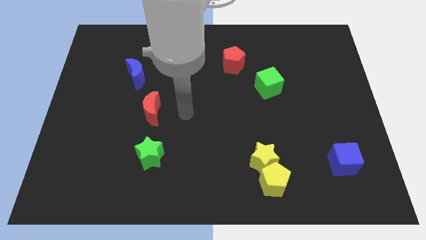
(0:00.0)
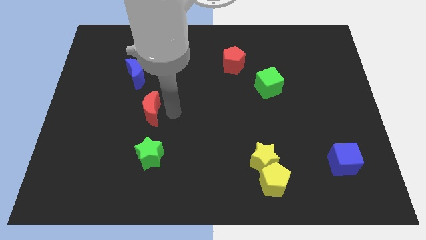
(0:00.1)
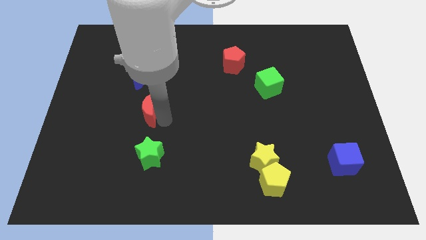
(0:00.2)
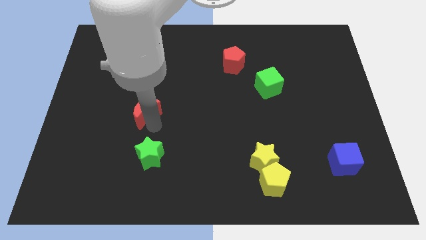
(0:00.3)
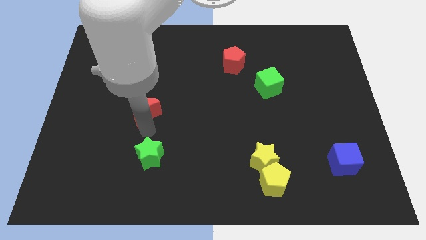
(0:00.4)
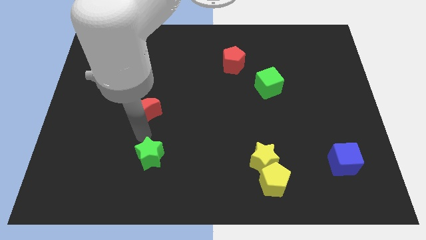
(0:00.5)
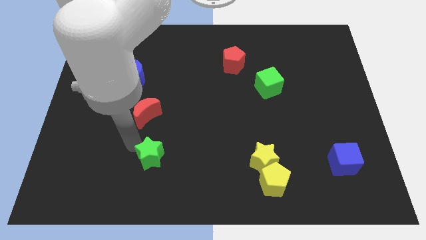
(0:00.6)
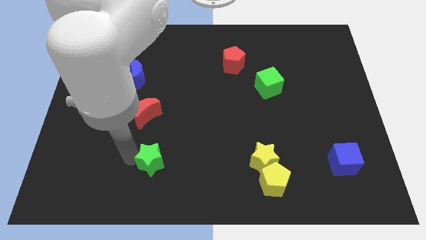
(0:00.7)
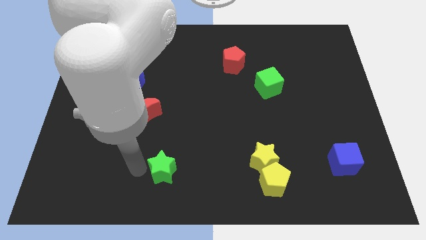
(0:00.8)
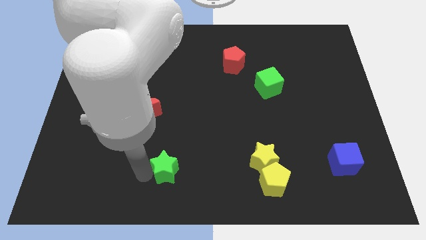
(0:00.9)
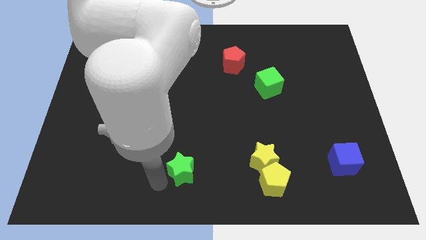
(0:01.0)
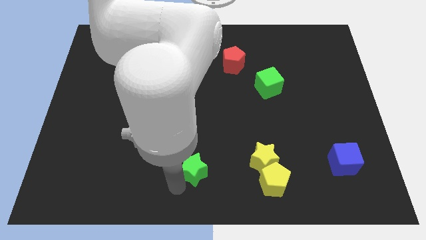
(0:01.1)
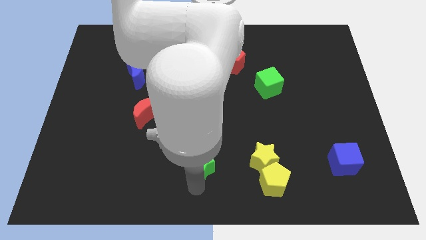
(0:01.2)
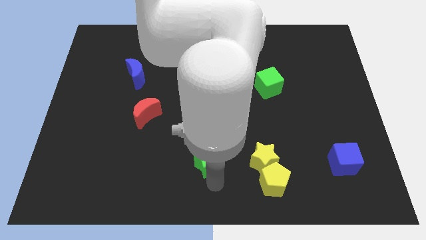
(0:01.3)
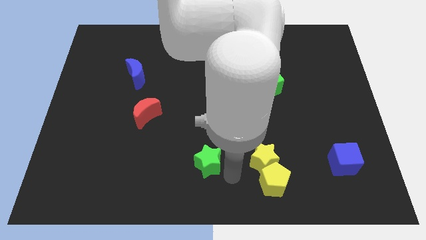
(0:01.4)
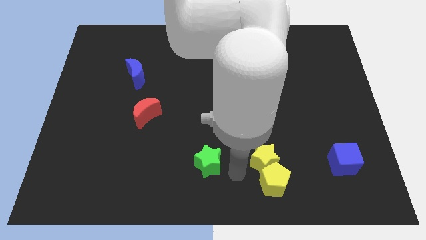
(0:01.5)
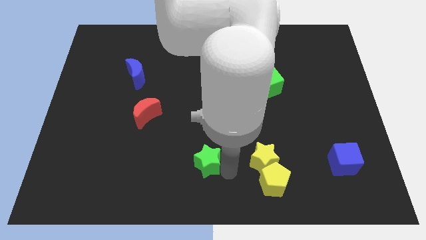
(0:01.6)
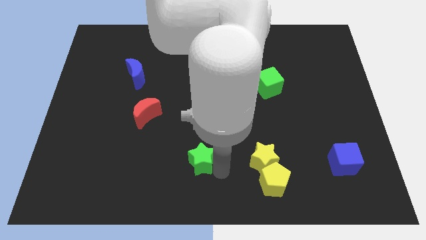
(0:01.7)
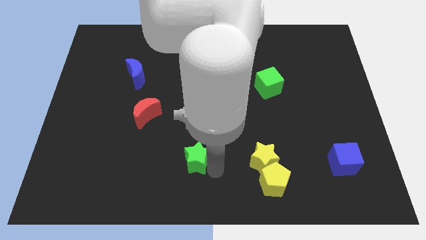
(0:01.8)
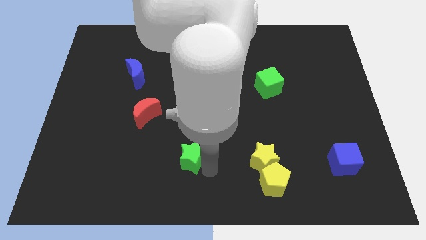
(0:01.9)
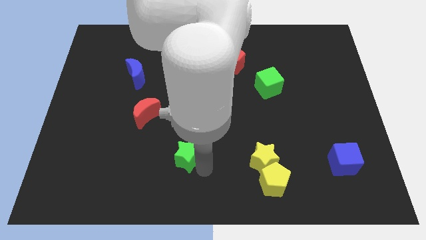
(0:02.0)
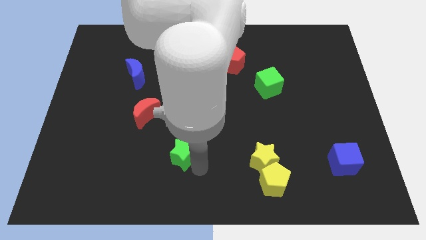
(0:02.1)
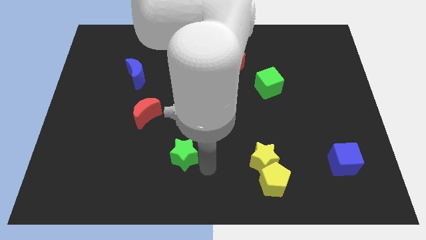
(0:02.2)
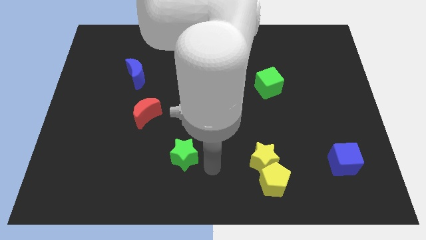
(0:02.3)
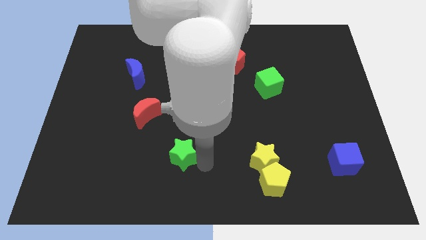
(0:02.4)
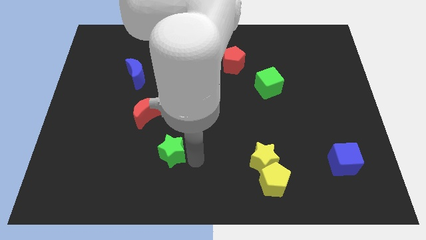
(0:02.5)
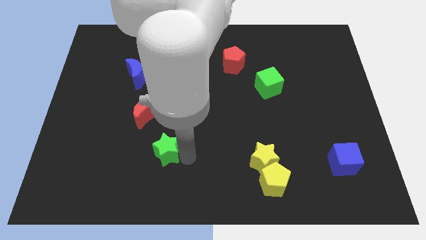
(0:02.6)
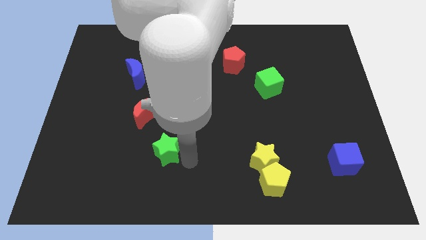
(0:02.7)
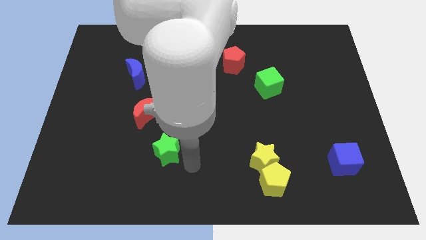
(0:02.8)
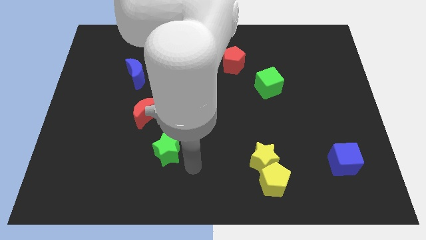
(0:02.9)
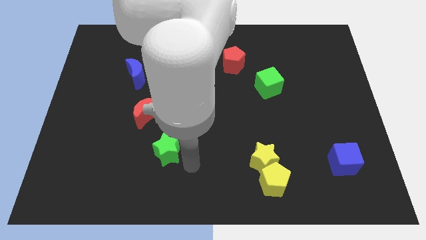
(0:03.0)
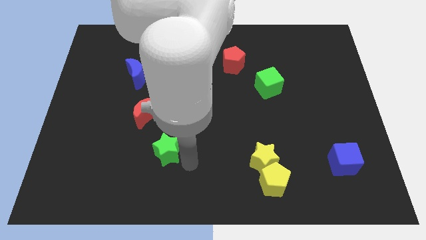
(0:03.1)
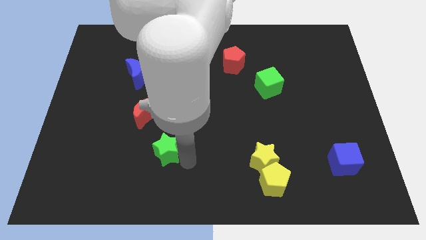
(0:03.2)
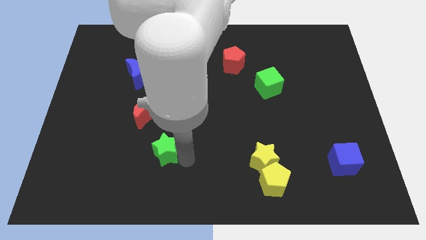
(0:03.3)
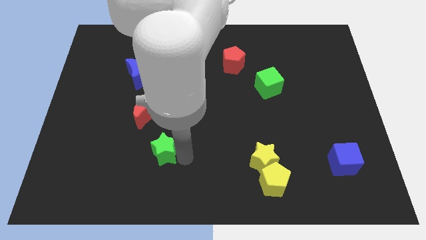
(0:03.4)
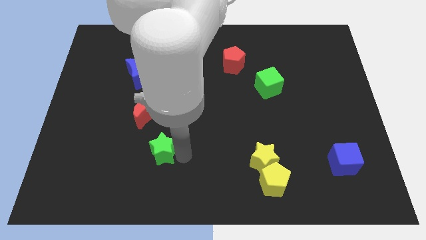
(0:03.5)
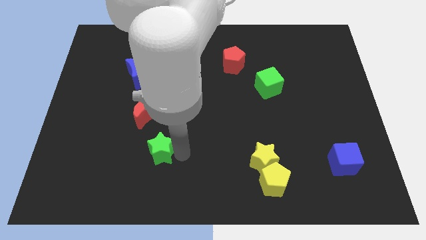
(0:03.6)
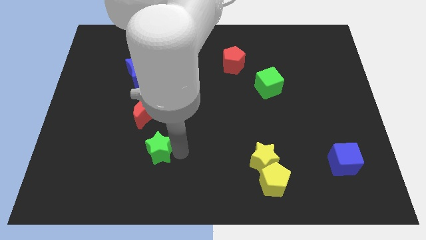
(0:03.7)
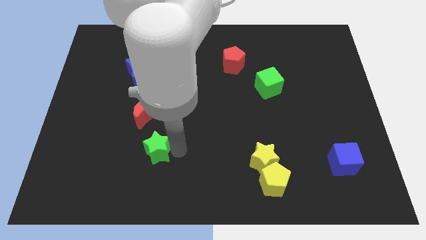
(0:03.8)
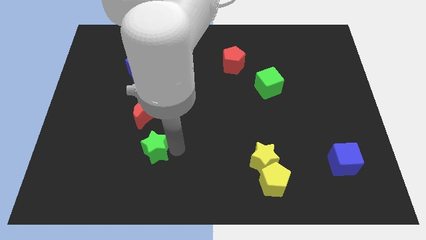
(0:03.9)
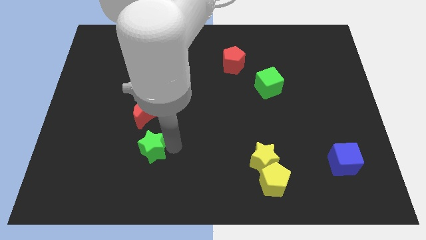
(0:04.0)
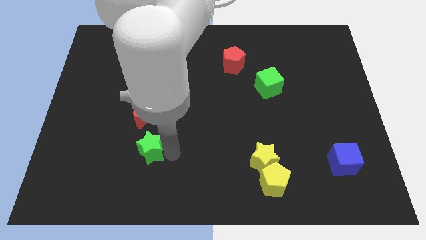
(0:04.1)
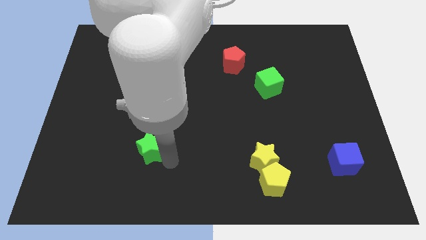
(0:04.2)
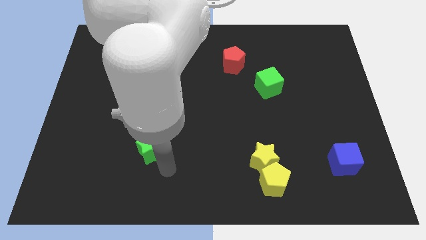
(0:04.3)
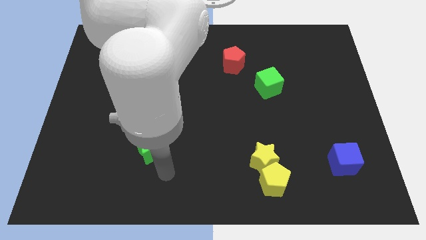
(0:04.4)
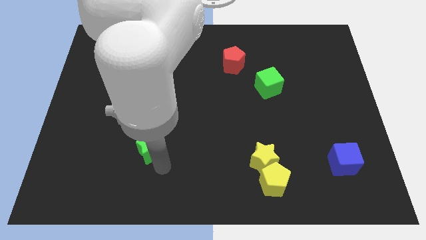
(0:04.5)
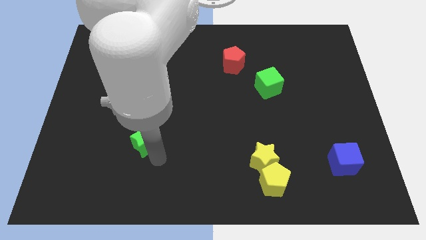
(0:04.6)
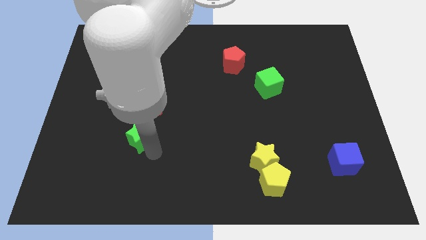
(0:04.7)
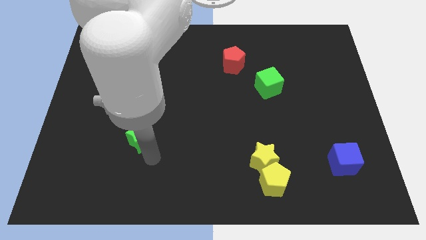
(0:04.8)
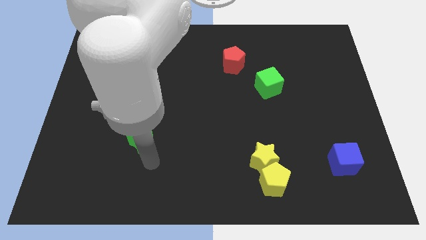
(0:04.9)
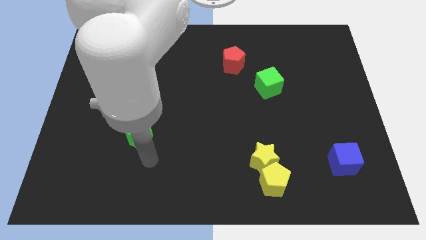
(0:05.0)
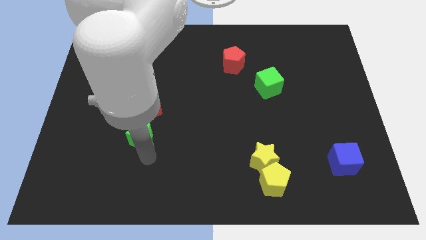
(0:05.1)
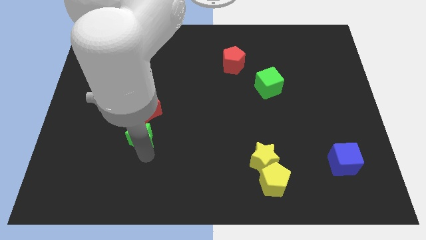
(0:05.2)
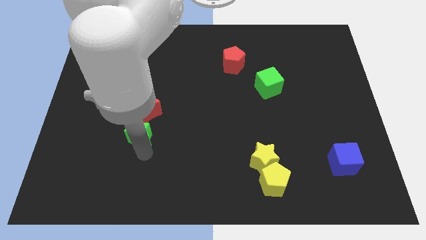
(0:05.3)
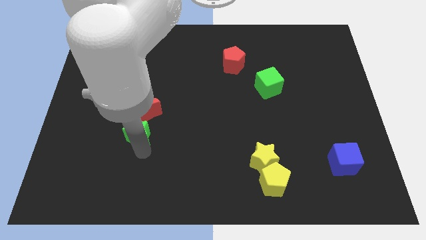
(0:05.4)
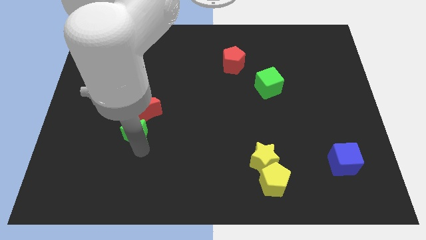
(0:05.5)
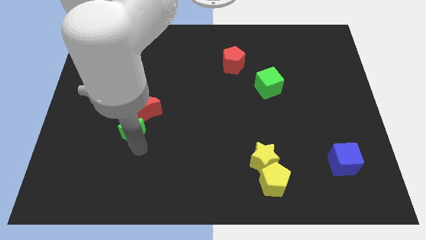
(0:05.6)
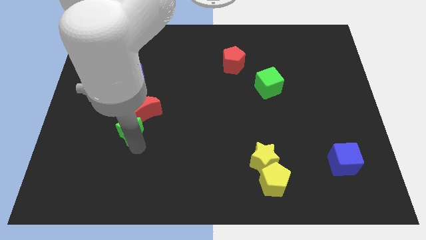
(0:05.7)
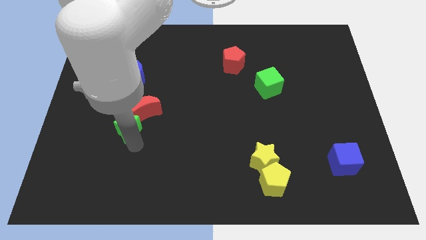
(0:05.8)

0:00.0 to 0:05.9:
slide the green star to the bottom of the blue moon
